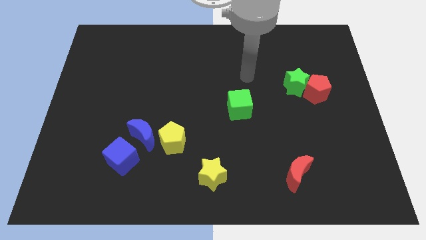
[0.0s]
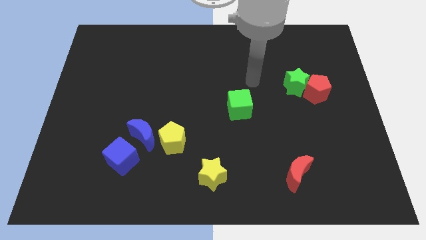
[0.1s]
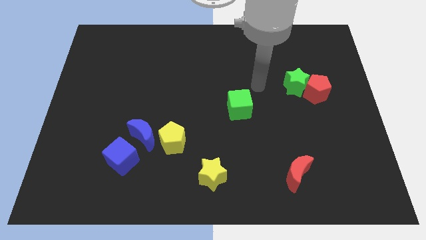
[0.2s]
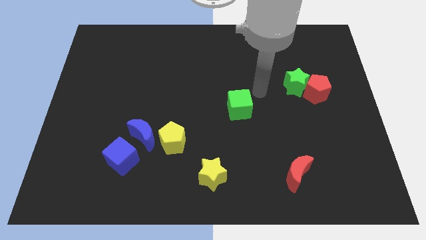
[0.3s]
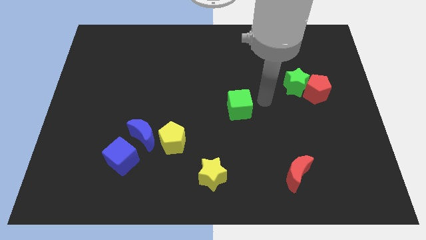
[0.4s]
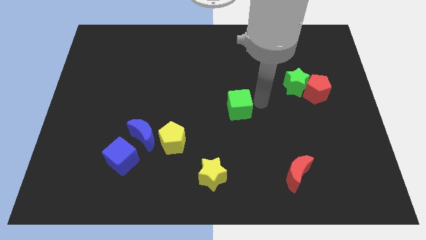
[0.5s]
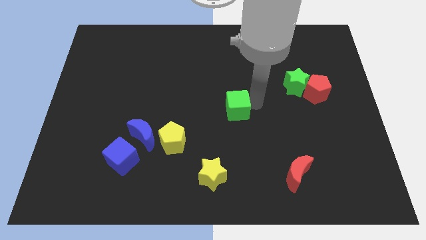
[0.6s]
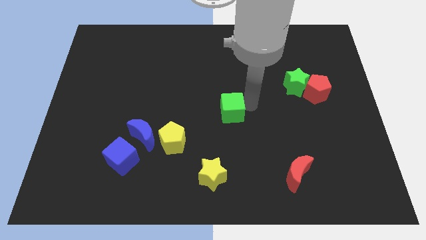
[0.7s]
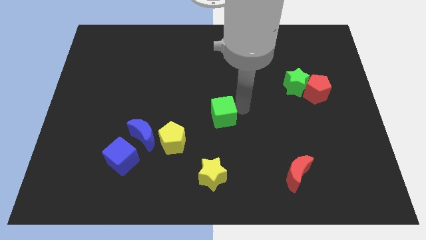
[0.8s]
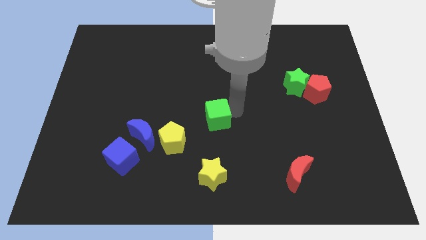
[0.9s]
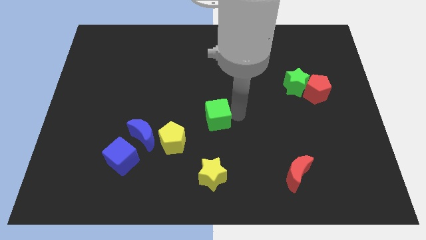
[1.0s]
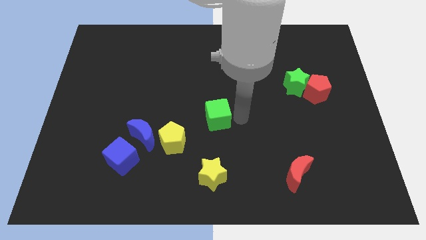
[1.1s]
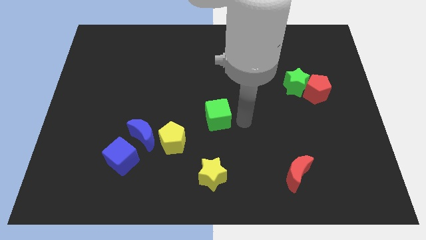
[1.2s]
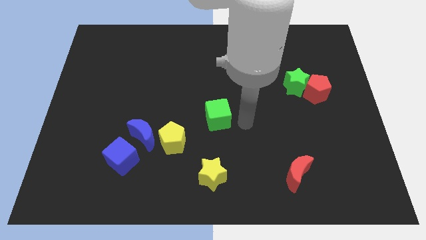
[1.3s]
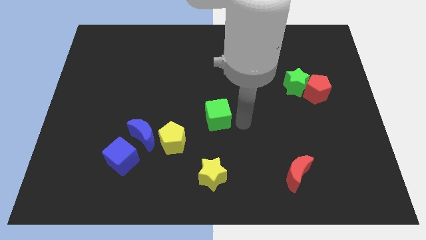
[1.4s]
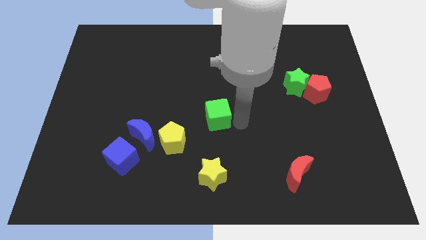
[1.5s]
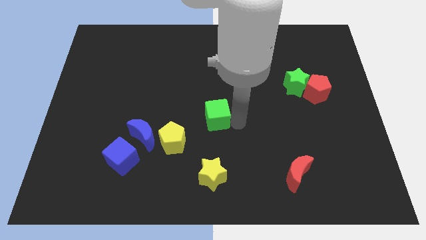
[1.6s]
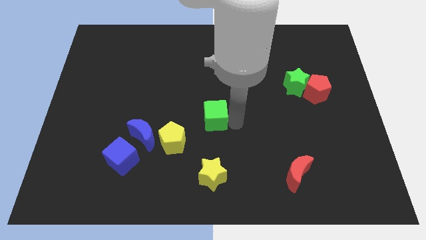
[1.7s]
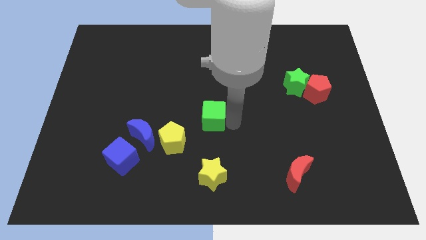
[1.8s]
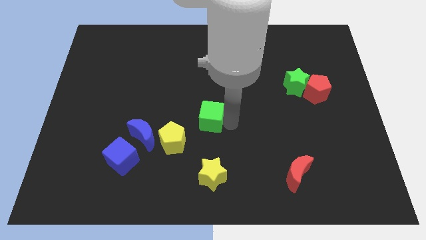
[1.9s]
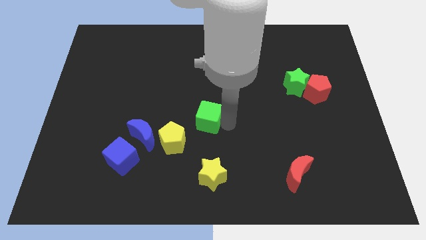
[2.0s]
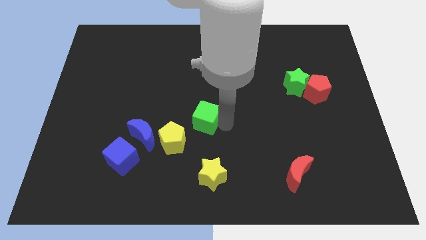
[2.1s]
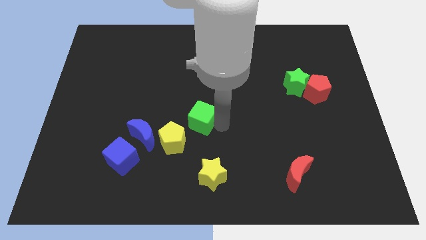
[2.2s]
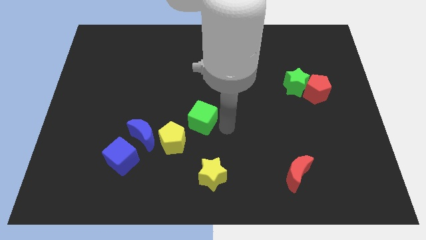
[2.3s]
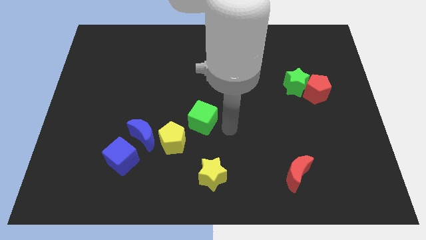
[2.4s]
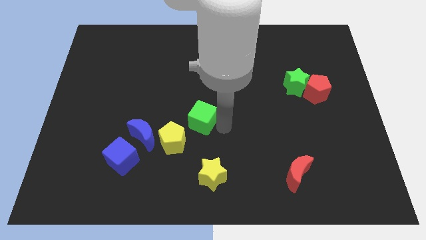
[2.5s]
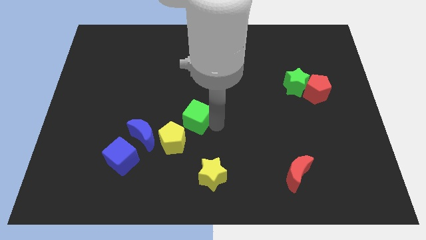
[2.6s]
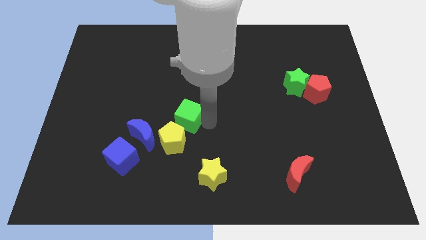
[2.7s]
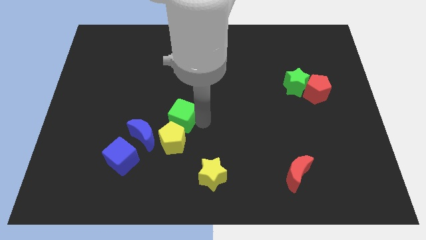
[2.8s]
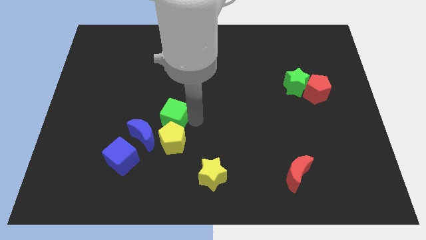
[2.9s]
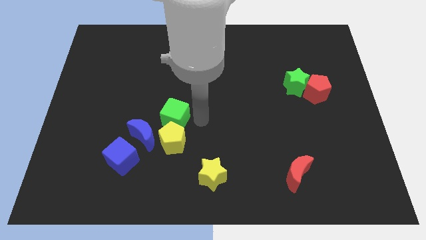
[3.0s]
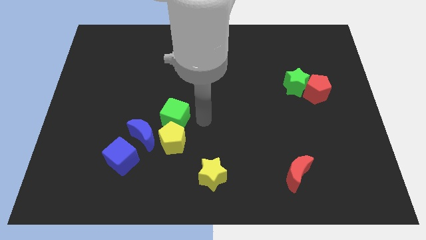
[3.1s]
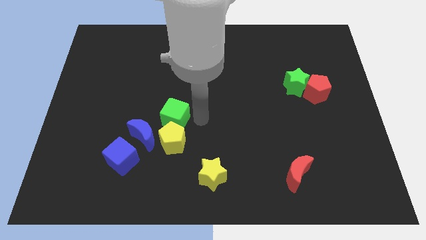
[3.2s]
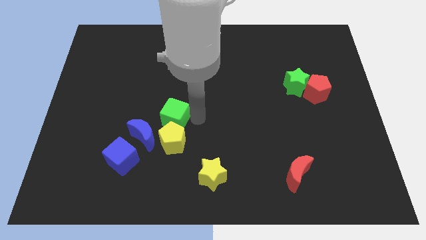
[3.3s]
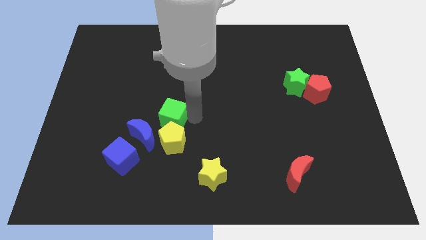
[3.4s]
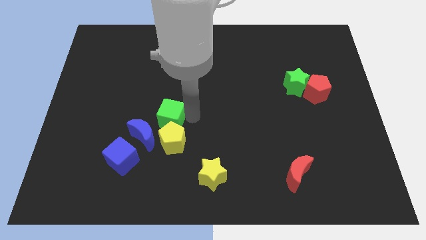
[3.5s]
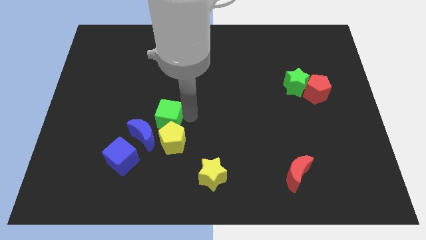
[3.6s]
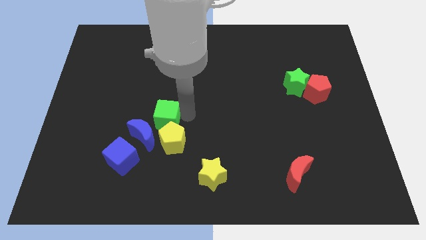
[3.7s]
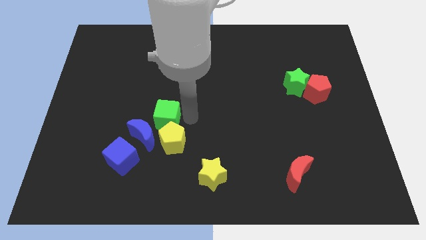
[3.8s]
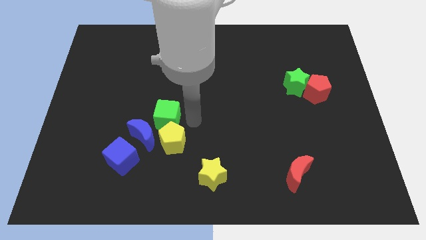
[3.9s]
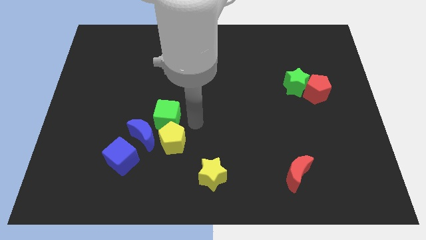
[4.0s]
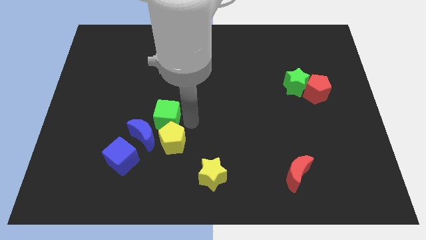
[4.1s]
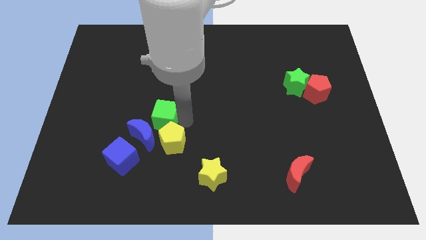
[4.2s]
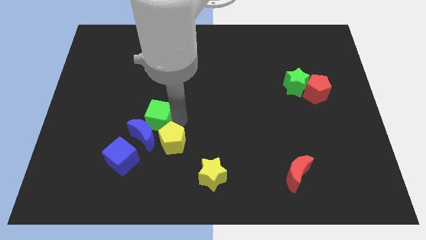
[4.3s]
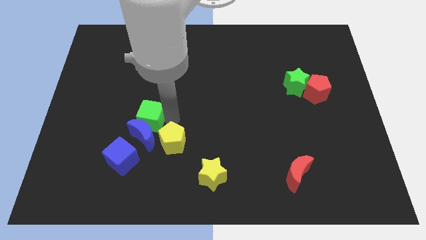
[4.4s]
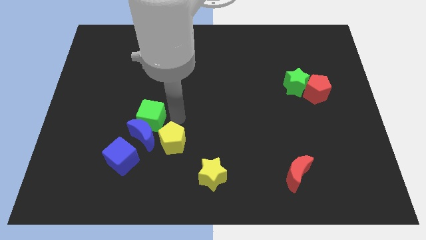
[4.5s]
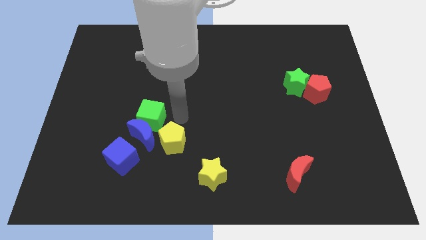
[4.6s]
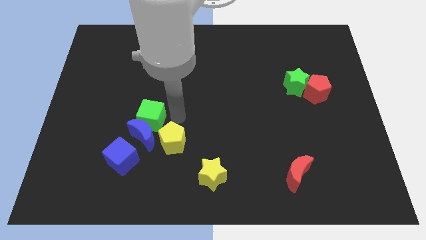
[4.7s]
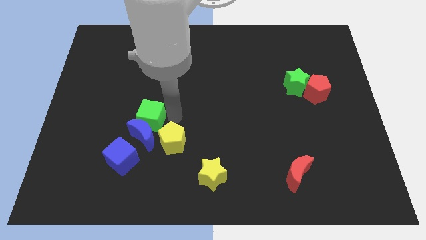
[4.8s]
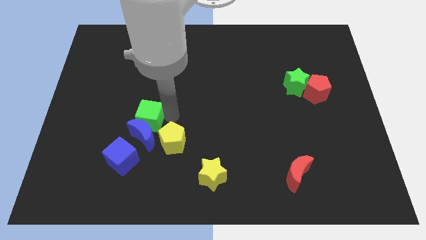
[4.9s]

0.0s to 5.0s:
slide the green cube to the top of the blue cube

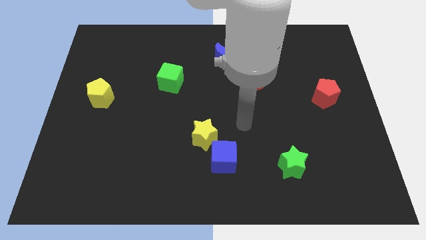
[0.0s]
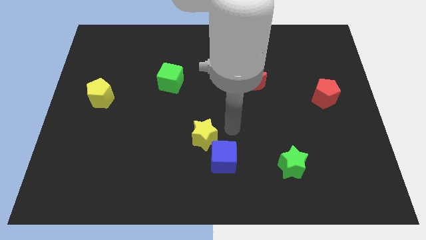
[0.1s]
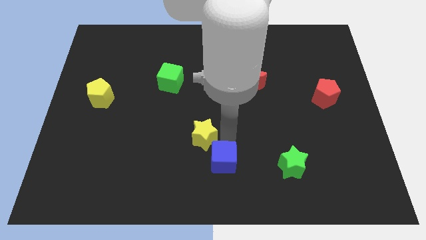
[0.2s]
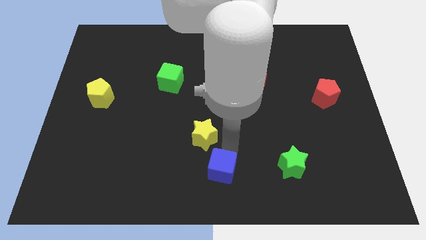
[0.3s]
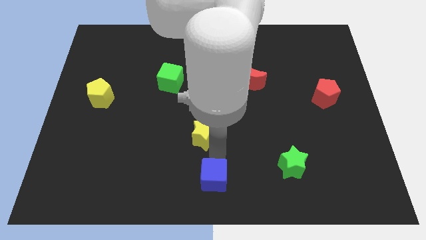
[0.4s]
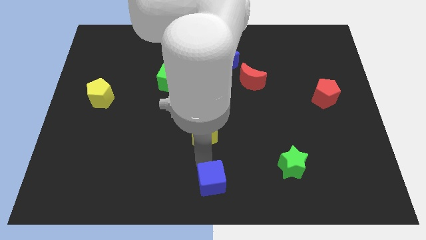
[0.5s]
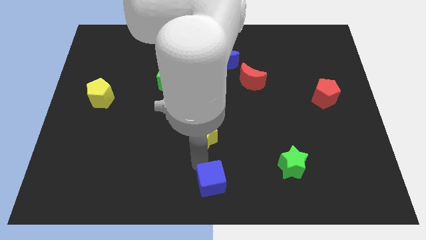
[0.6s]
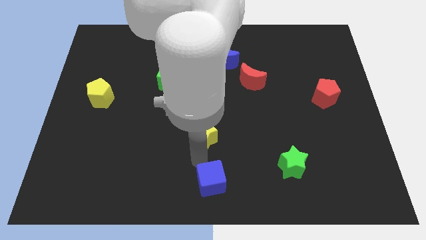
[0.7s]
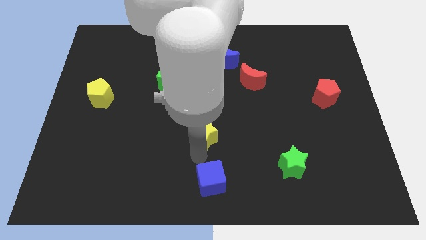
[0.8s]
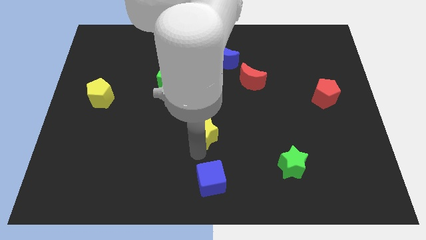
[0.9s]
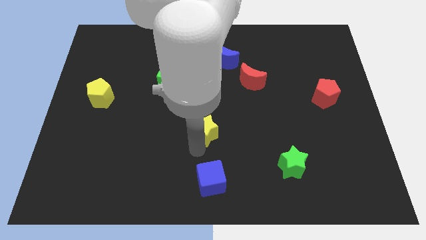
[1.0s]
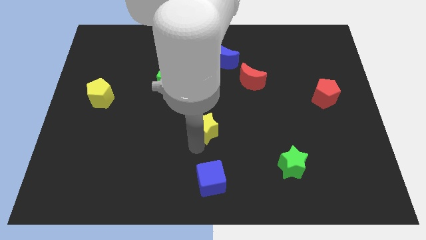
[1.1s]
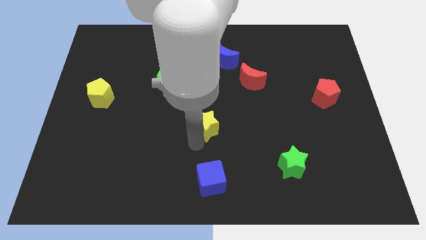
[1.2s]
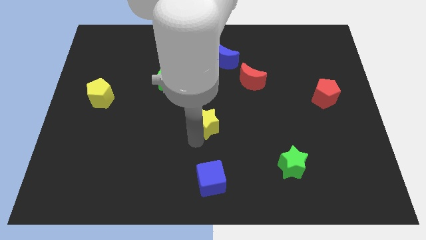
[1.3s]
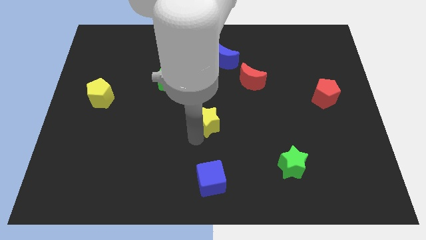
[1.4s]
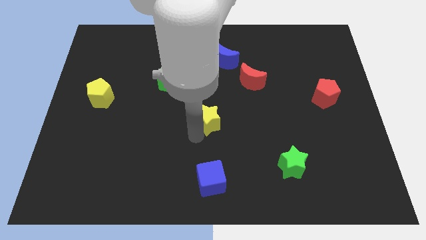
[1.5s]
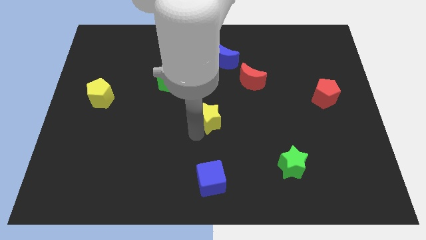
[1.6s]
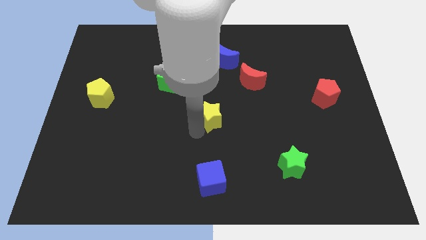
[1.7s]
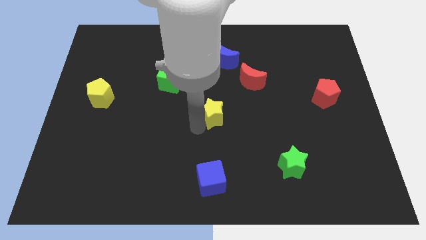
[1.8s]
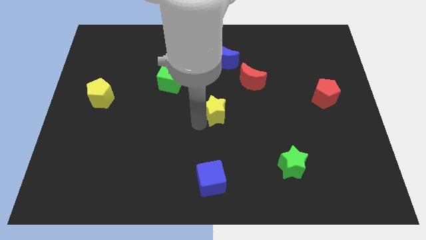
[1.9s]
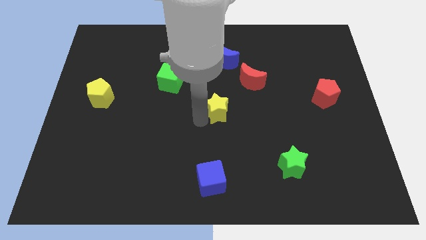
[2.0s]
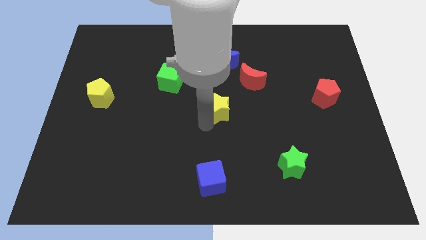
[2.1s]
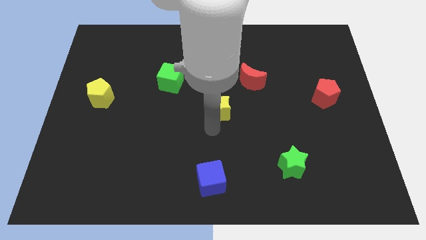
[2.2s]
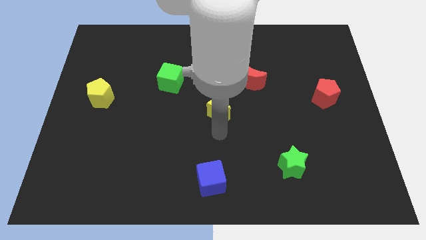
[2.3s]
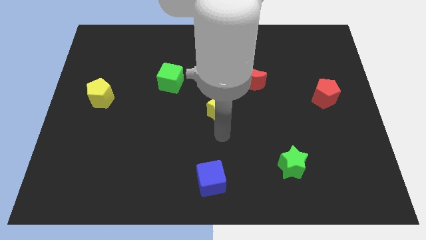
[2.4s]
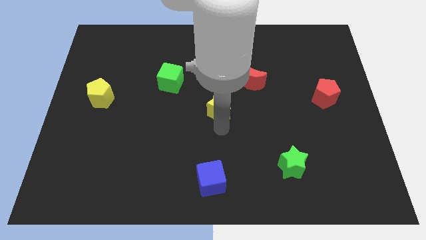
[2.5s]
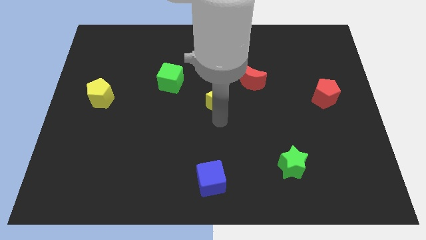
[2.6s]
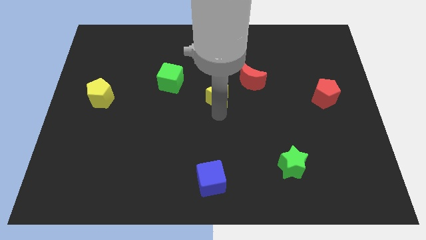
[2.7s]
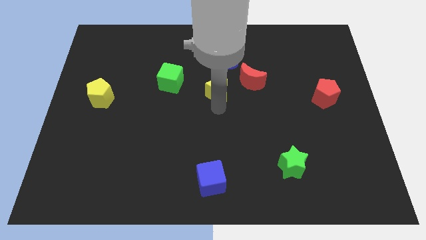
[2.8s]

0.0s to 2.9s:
slide the yellow star to the right of the green cube

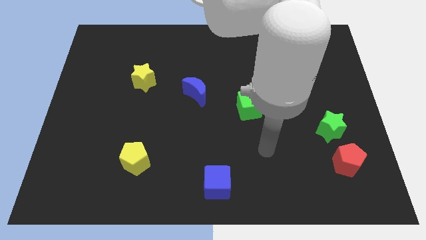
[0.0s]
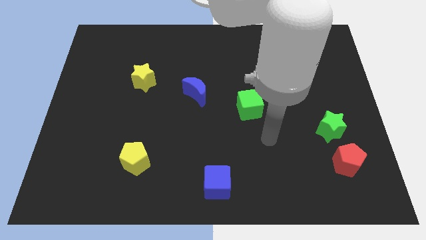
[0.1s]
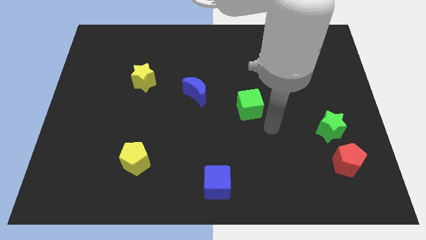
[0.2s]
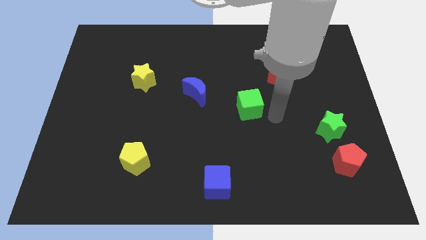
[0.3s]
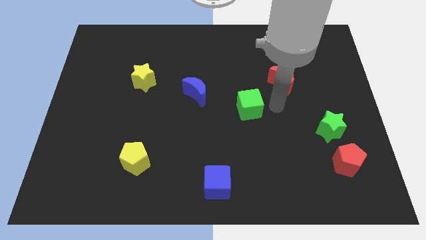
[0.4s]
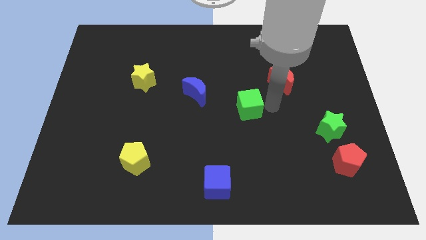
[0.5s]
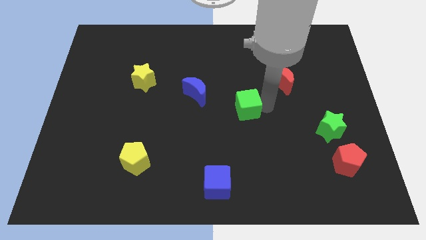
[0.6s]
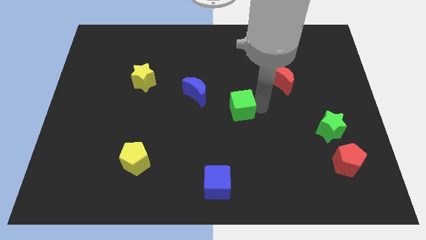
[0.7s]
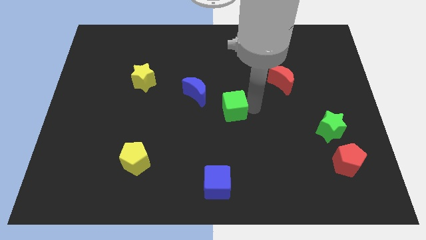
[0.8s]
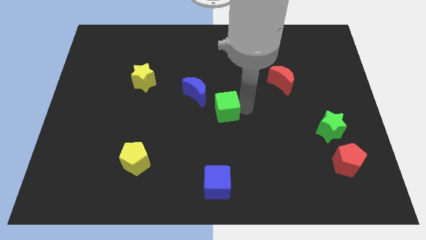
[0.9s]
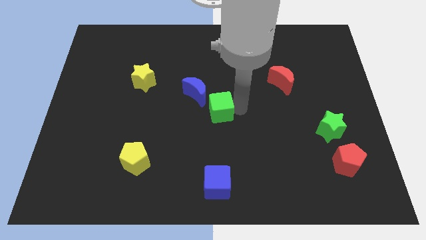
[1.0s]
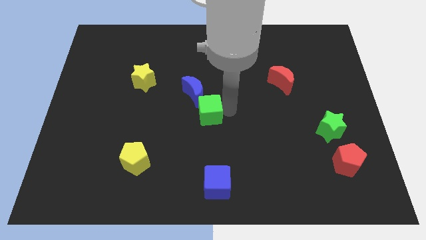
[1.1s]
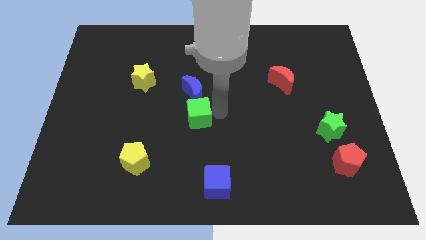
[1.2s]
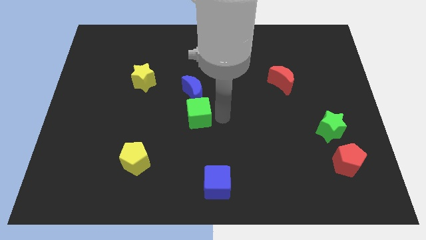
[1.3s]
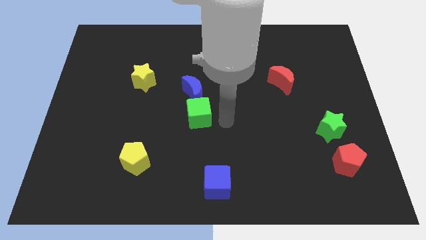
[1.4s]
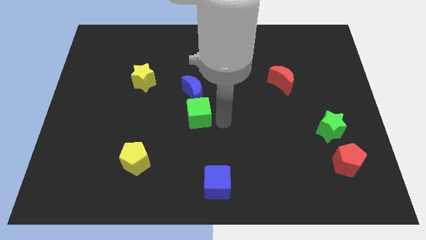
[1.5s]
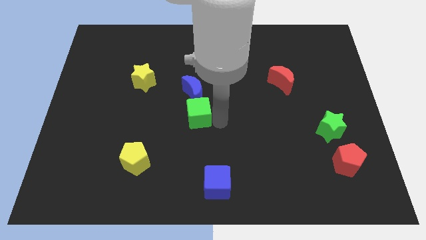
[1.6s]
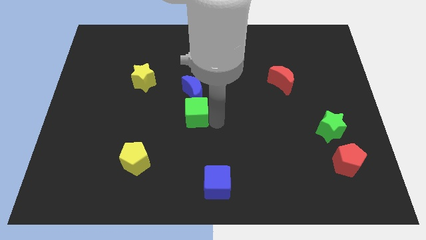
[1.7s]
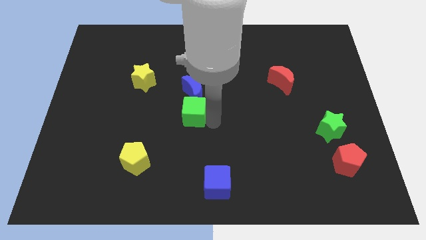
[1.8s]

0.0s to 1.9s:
slide the green cube to the bottom left of the blue moon
